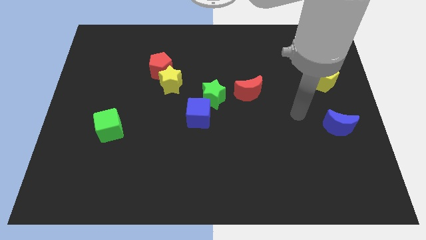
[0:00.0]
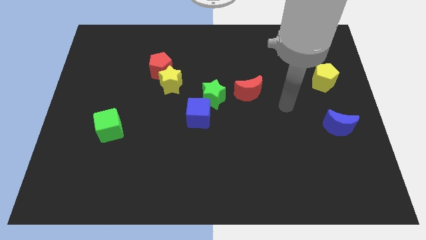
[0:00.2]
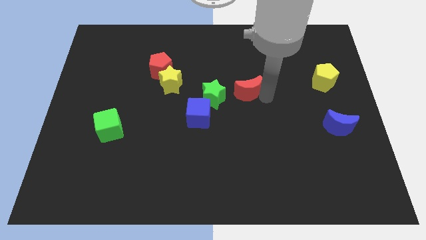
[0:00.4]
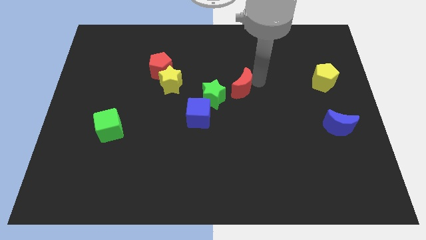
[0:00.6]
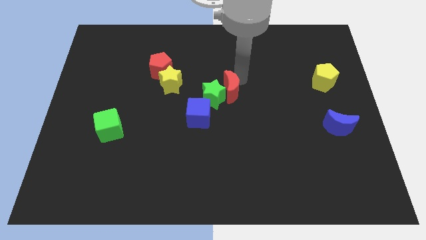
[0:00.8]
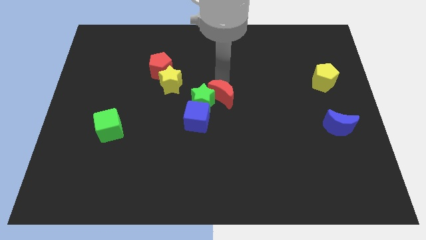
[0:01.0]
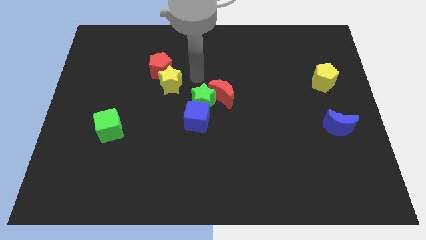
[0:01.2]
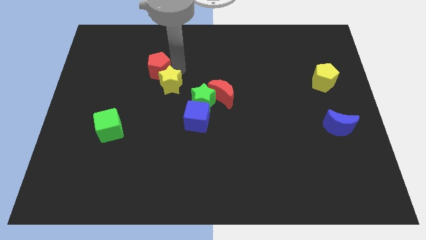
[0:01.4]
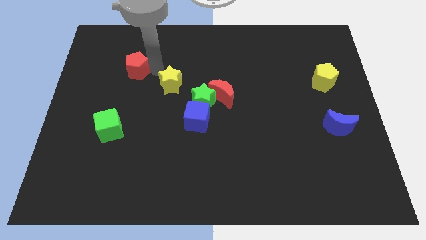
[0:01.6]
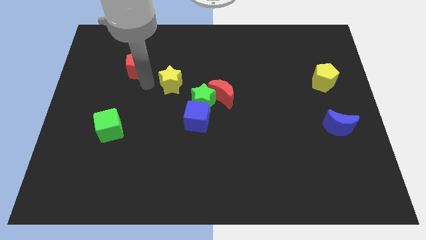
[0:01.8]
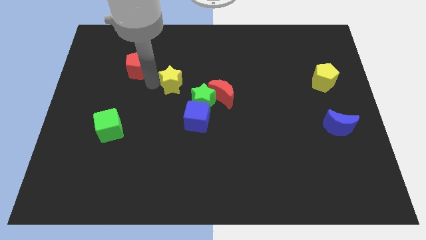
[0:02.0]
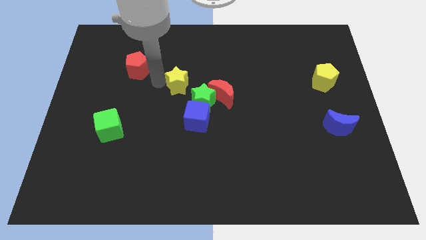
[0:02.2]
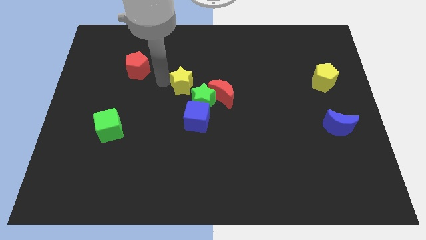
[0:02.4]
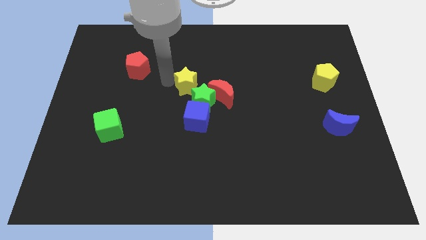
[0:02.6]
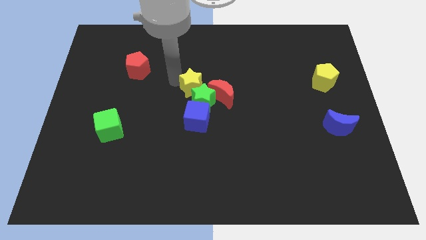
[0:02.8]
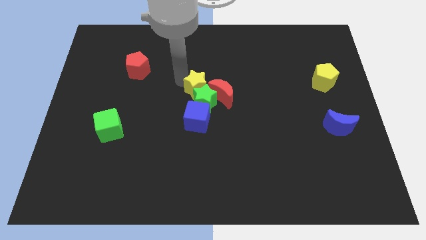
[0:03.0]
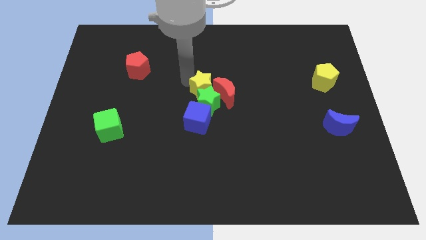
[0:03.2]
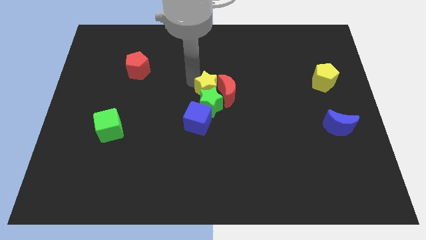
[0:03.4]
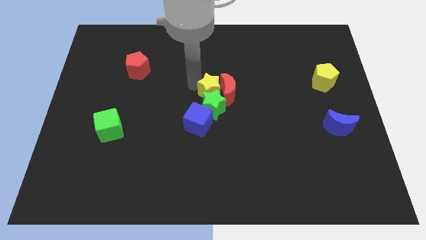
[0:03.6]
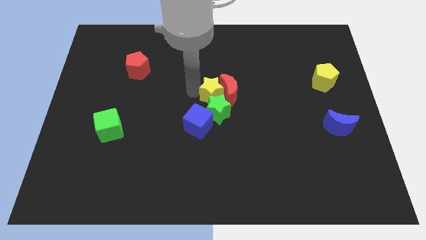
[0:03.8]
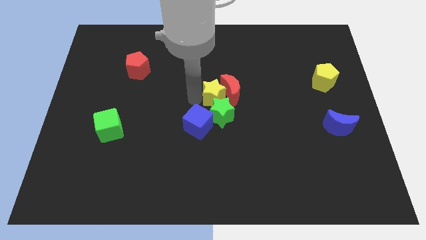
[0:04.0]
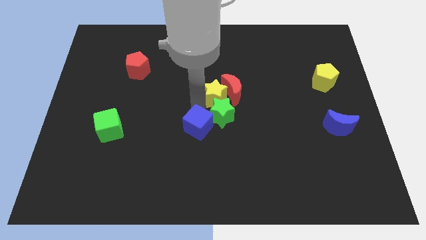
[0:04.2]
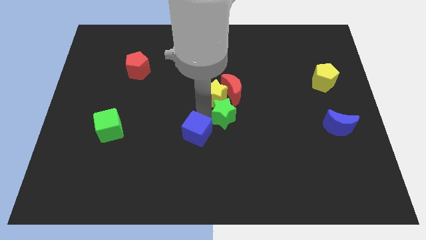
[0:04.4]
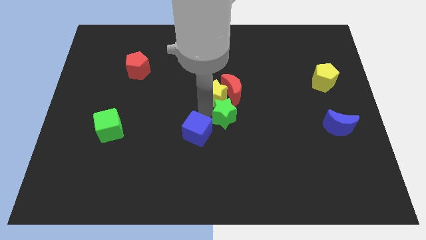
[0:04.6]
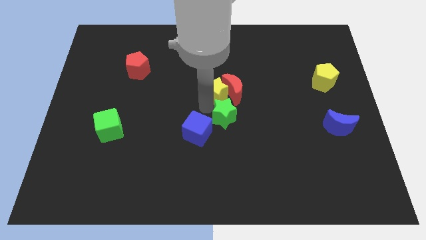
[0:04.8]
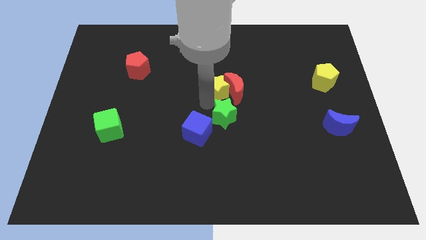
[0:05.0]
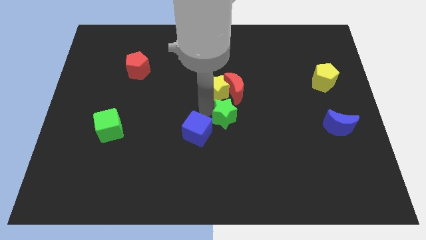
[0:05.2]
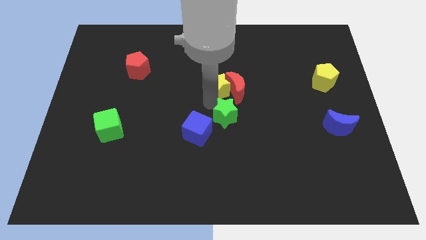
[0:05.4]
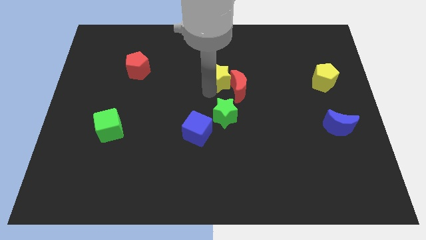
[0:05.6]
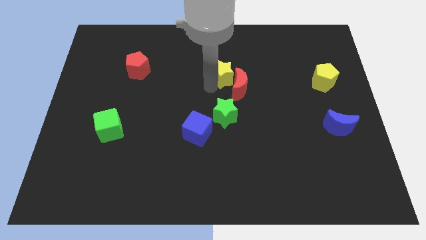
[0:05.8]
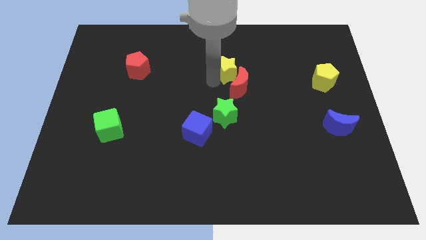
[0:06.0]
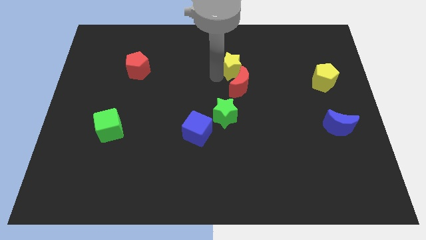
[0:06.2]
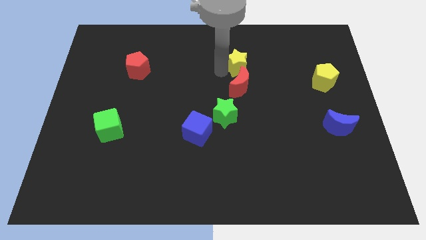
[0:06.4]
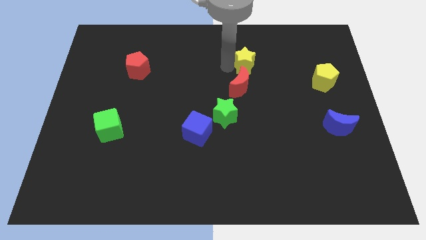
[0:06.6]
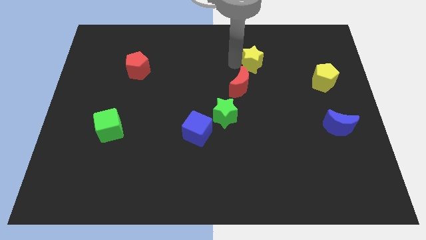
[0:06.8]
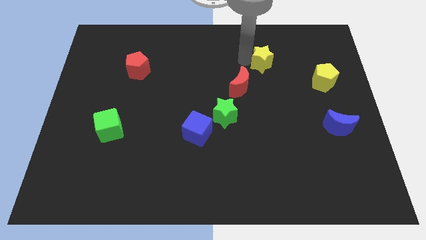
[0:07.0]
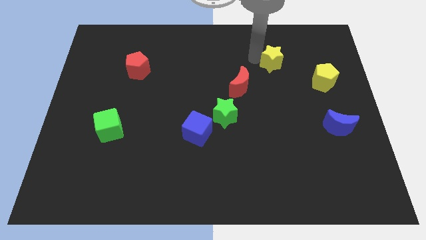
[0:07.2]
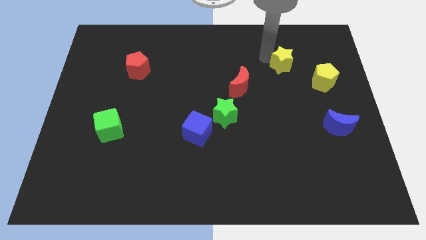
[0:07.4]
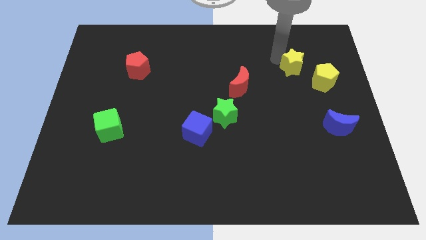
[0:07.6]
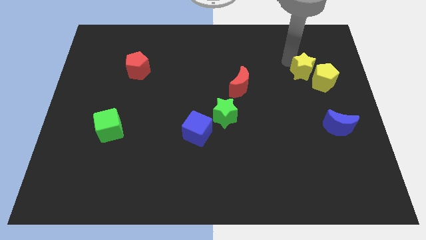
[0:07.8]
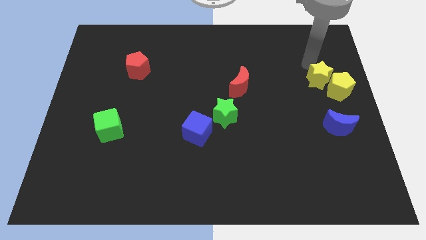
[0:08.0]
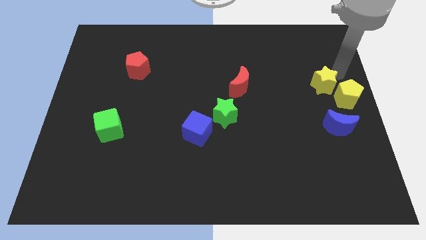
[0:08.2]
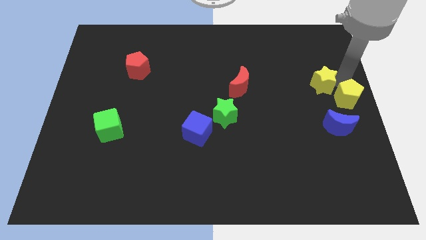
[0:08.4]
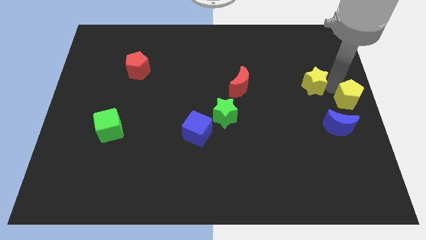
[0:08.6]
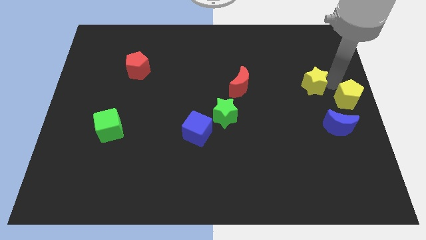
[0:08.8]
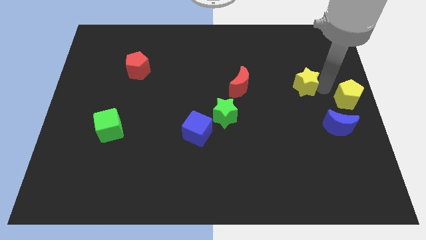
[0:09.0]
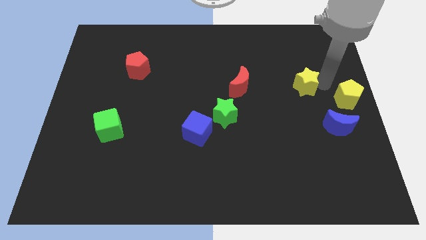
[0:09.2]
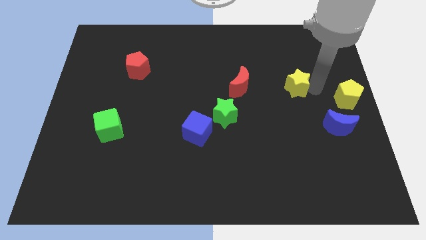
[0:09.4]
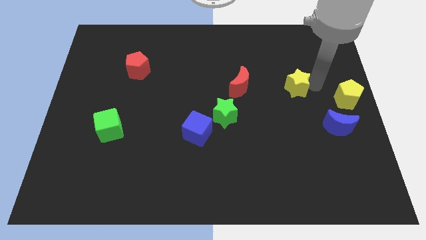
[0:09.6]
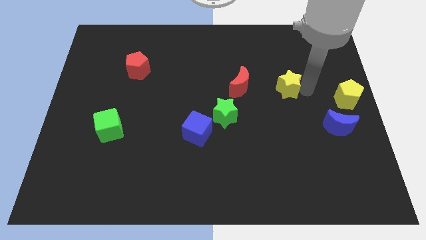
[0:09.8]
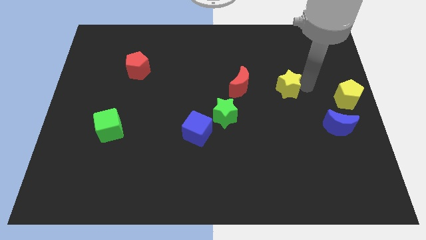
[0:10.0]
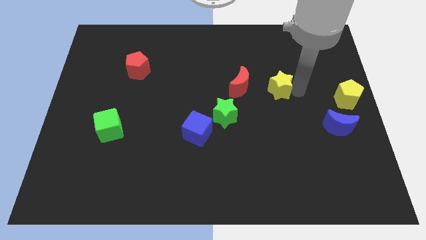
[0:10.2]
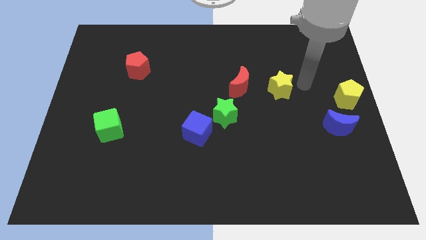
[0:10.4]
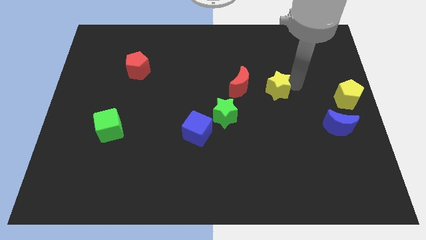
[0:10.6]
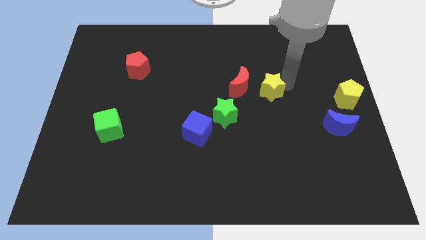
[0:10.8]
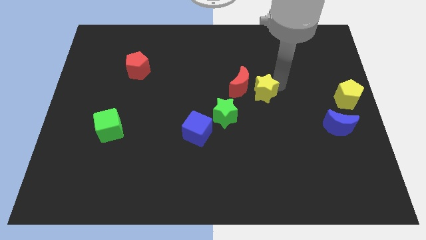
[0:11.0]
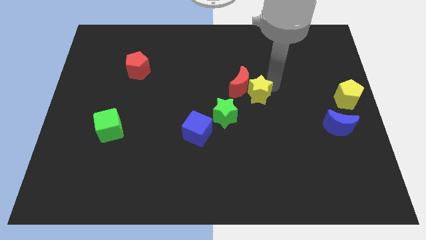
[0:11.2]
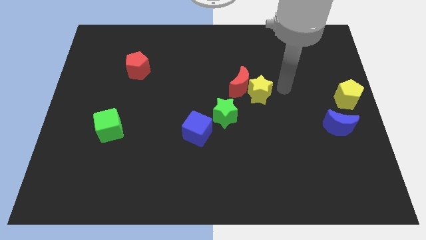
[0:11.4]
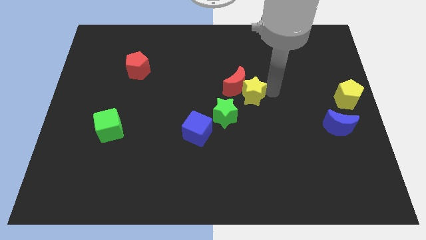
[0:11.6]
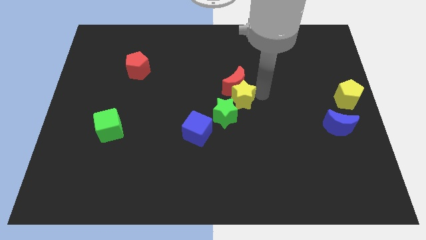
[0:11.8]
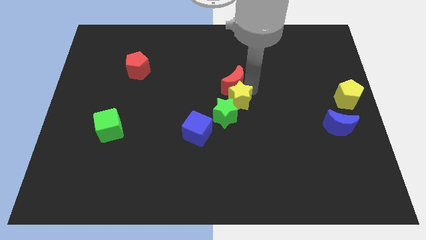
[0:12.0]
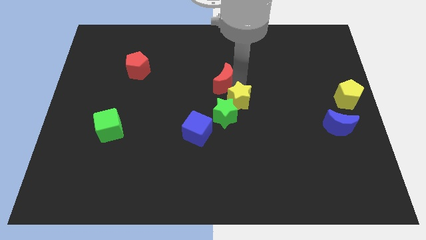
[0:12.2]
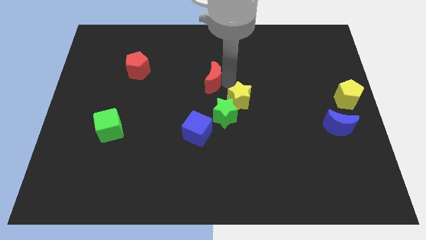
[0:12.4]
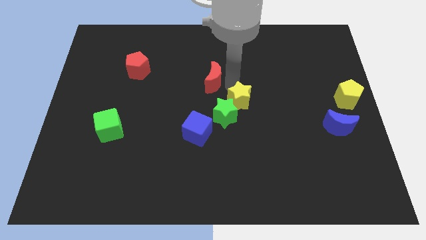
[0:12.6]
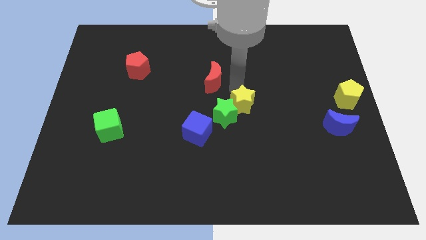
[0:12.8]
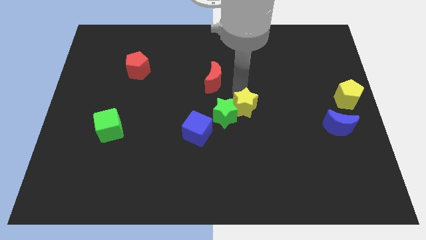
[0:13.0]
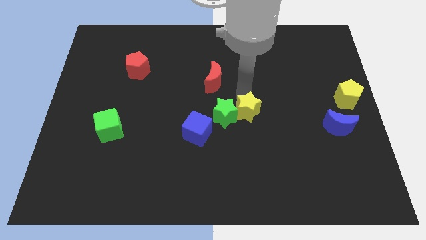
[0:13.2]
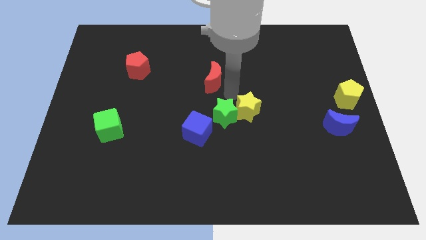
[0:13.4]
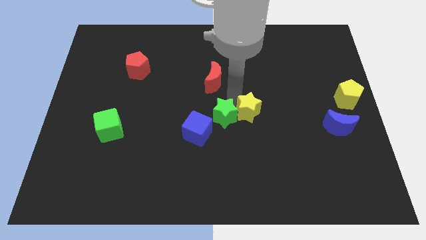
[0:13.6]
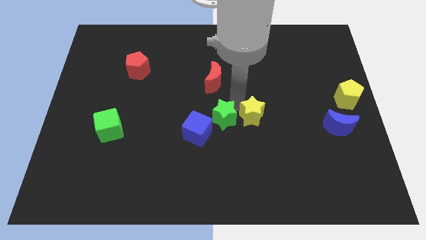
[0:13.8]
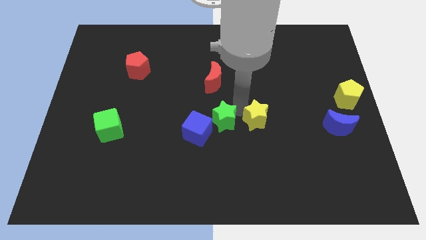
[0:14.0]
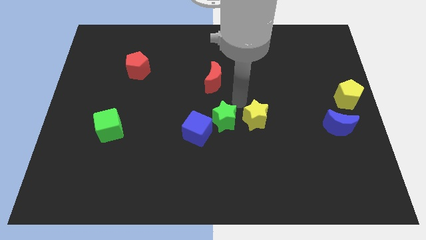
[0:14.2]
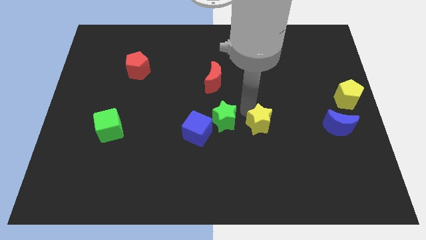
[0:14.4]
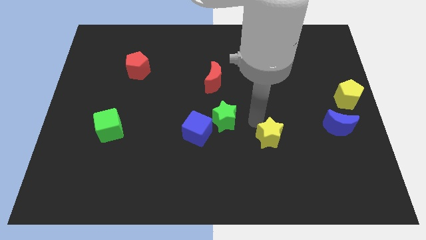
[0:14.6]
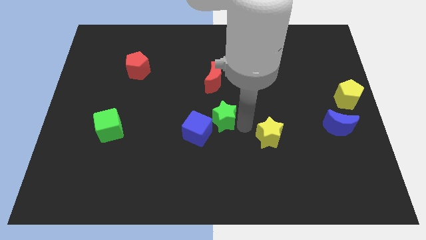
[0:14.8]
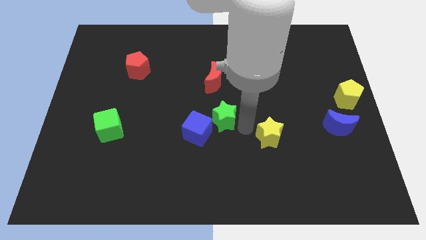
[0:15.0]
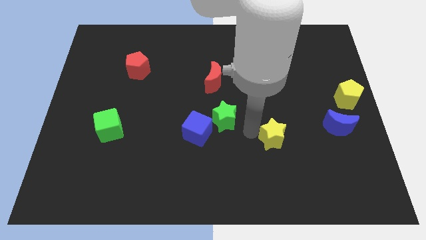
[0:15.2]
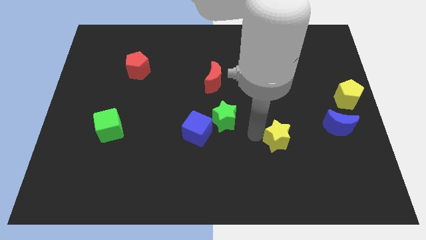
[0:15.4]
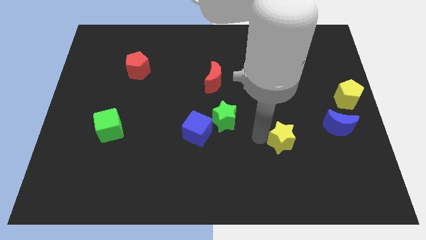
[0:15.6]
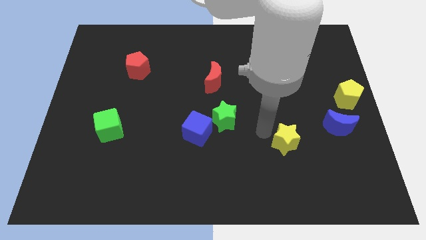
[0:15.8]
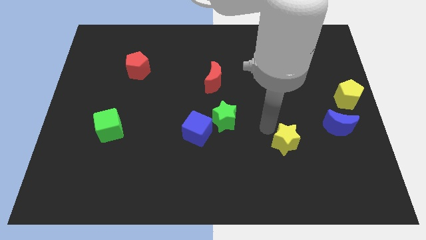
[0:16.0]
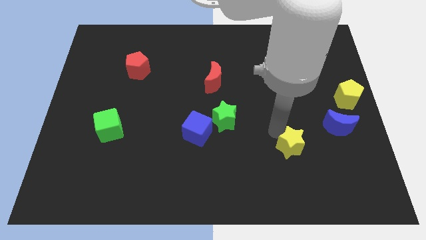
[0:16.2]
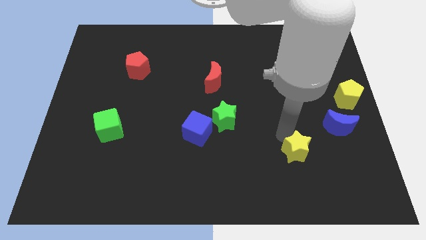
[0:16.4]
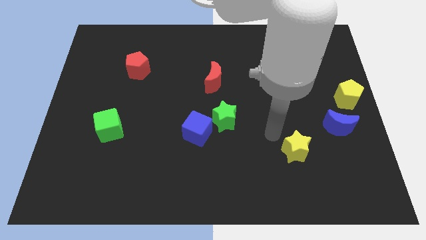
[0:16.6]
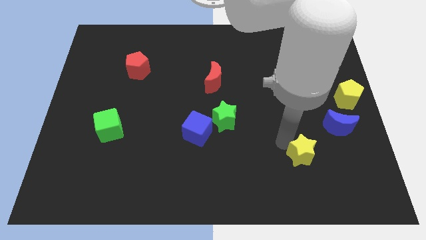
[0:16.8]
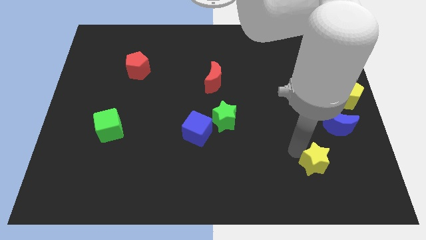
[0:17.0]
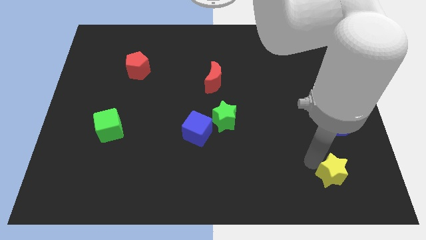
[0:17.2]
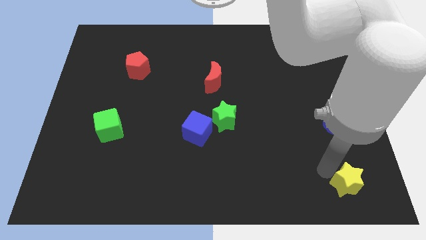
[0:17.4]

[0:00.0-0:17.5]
put the yellow star to the lower right corner
